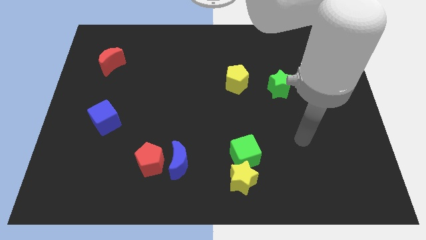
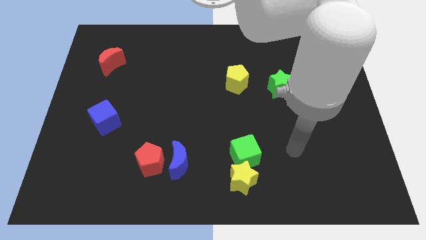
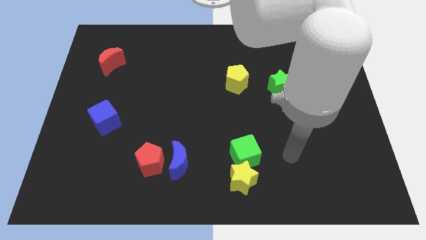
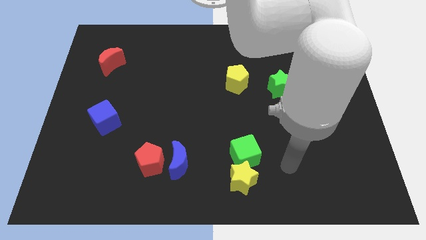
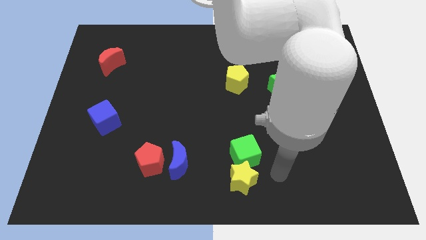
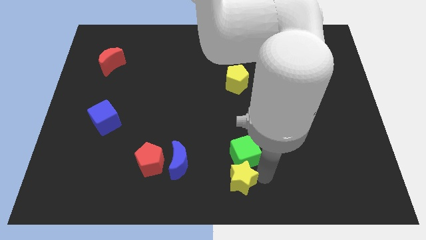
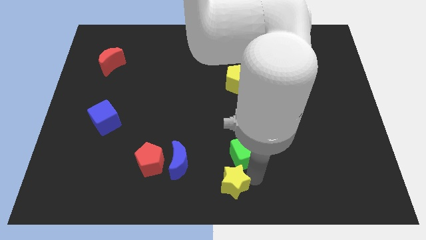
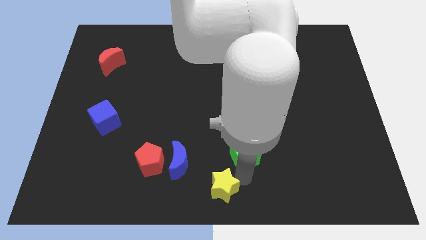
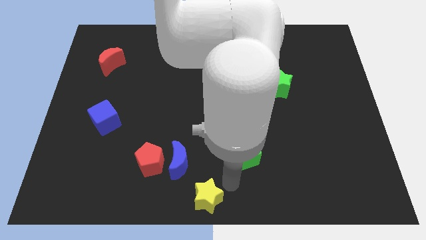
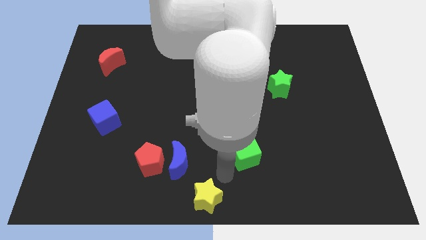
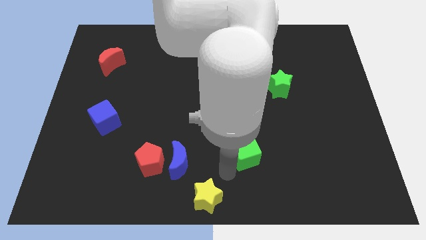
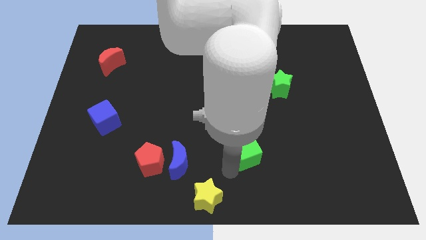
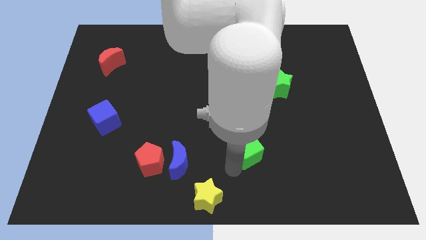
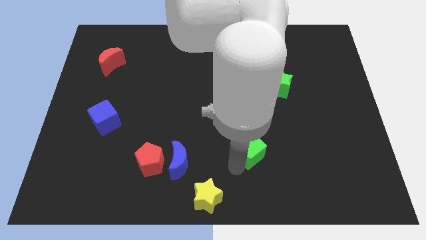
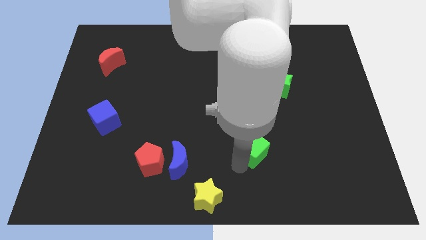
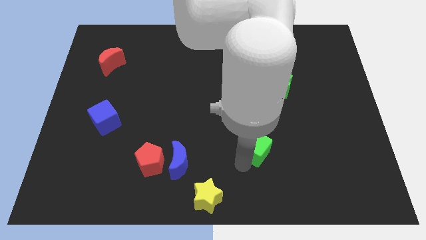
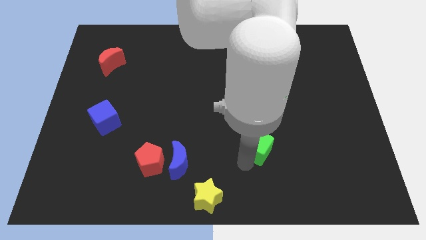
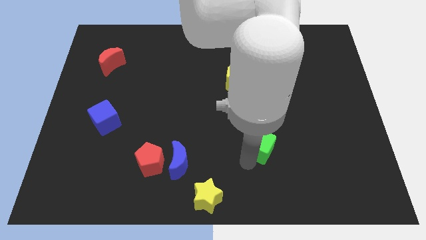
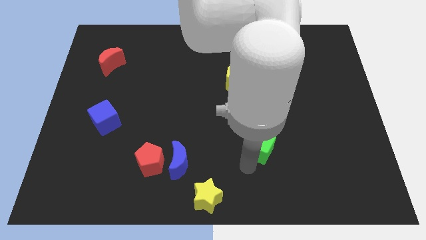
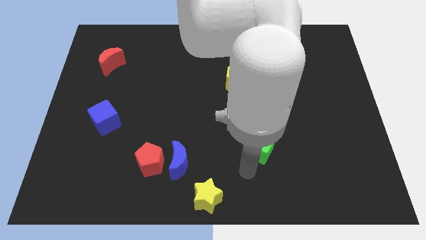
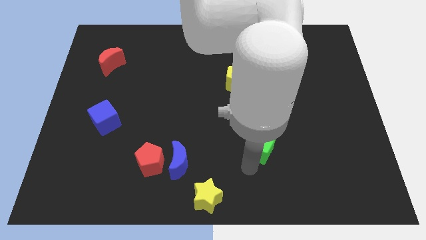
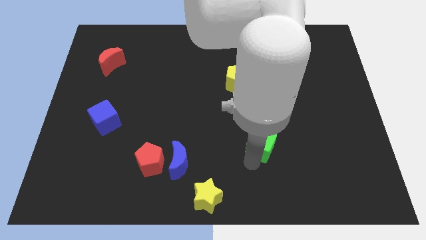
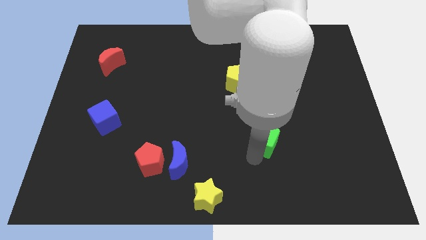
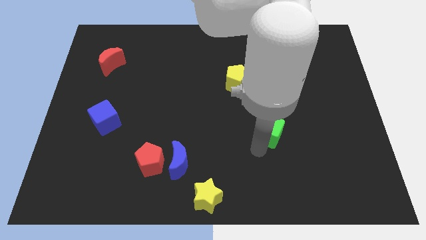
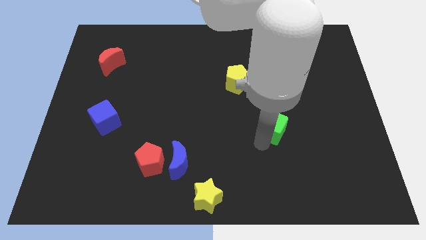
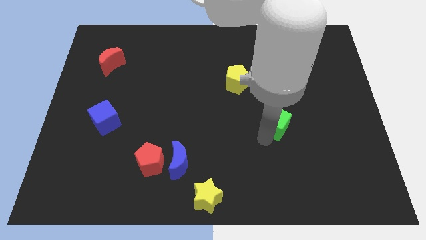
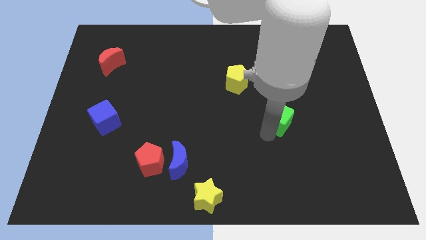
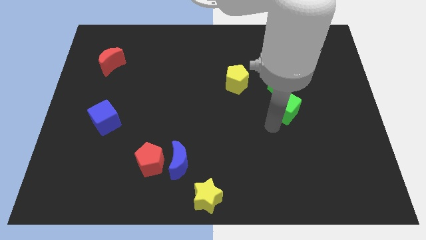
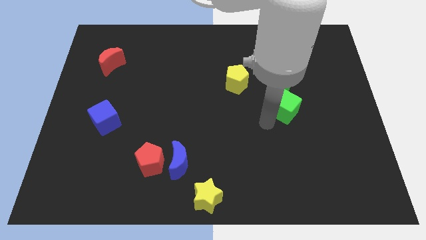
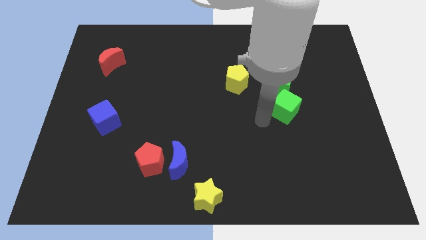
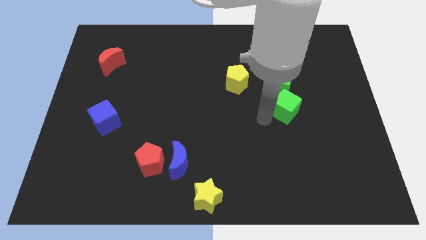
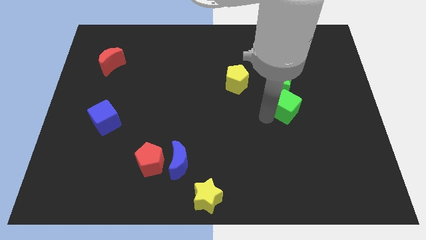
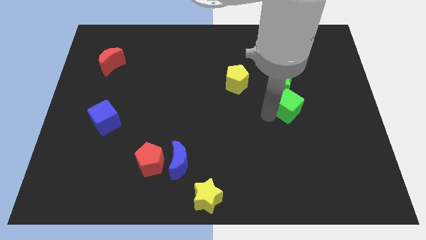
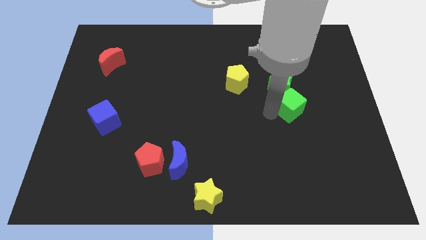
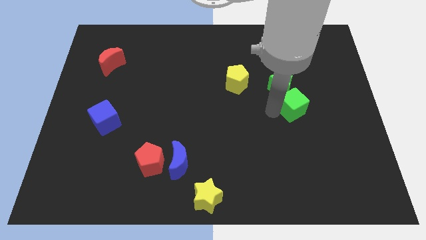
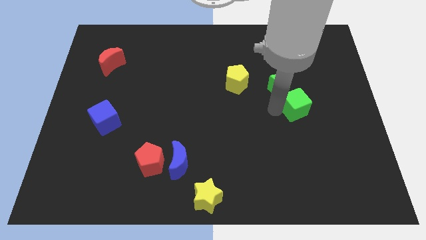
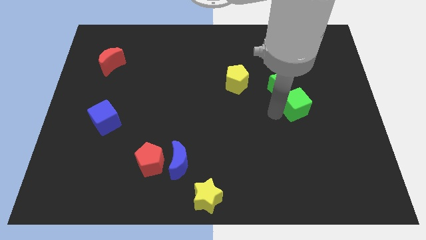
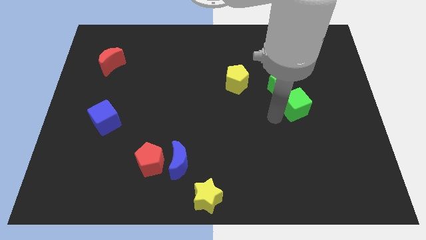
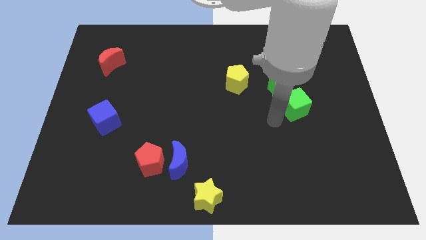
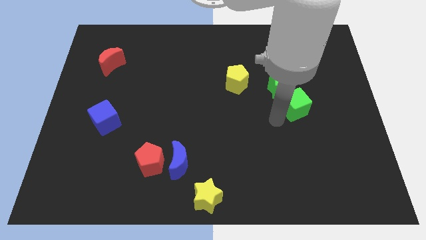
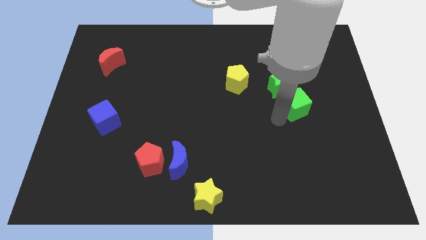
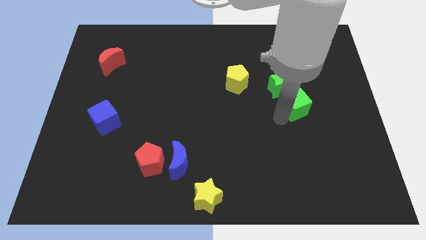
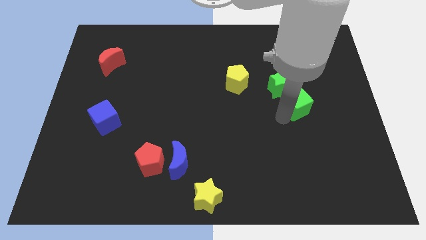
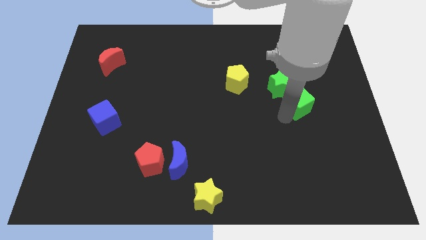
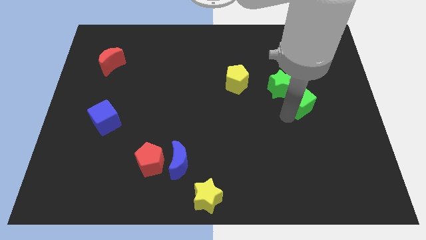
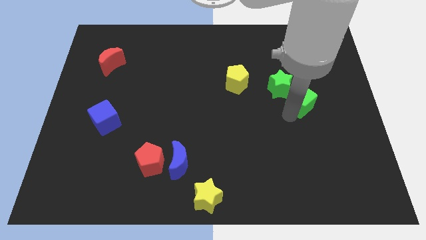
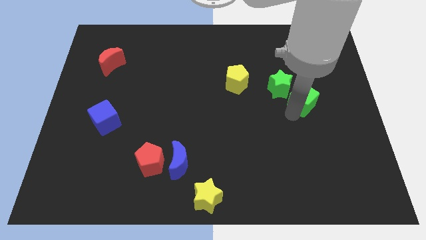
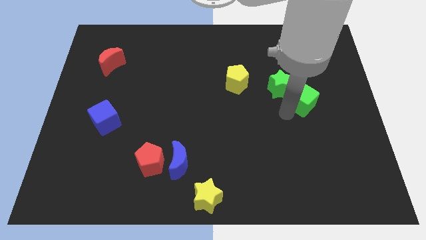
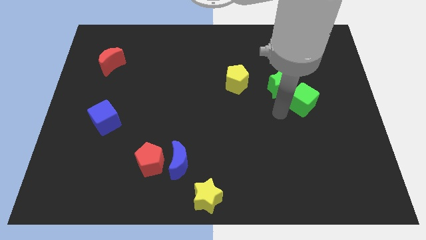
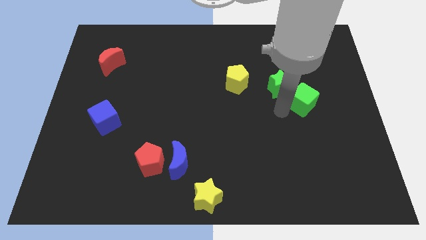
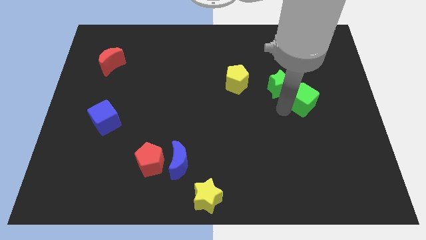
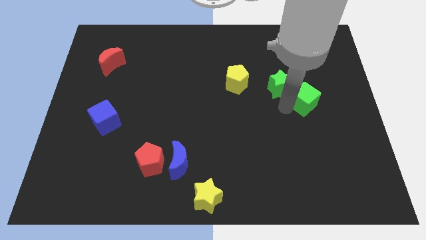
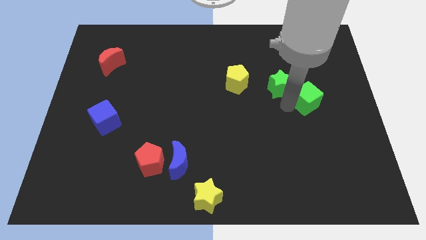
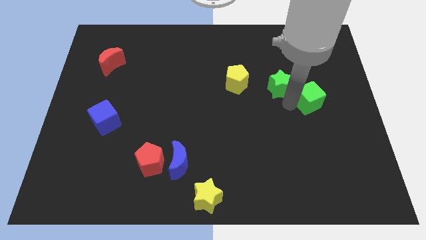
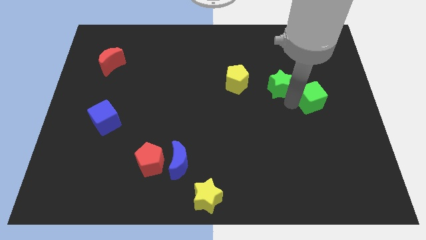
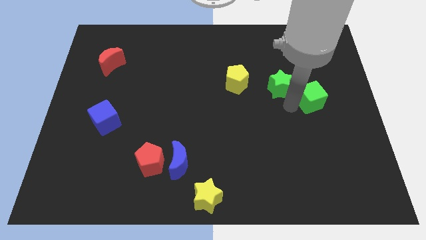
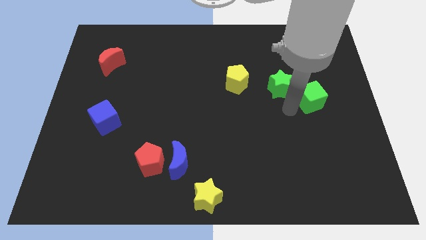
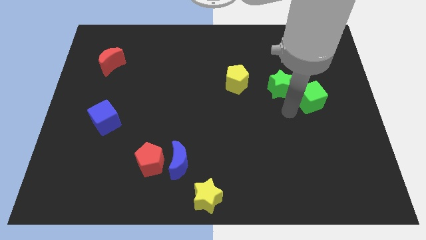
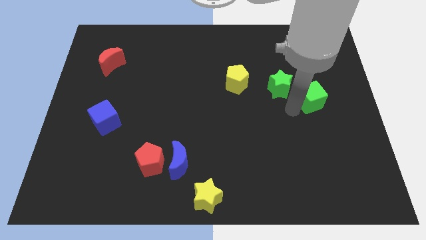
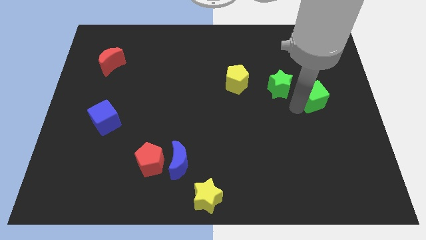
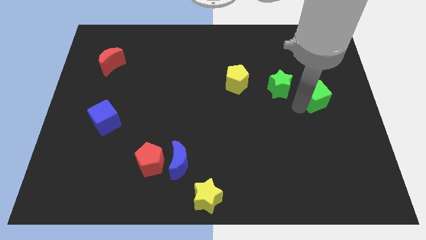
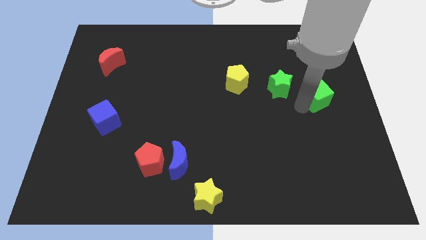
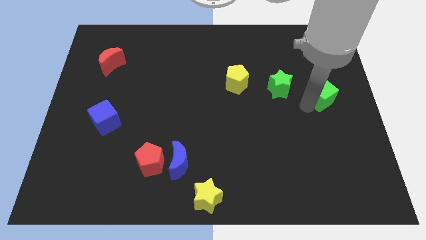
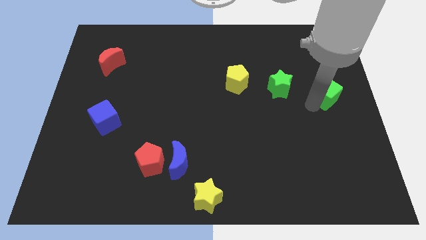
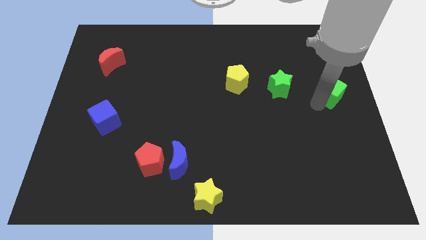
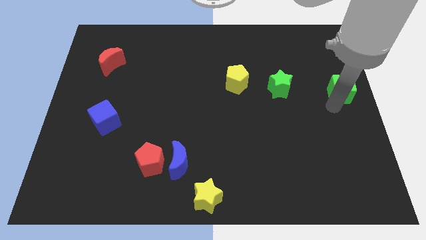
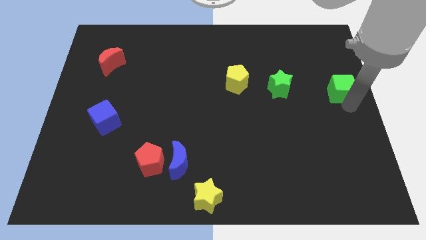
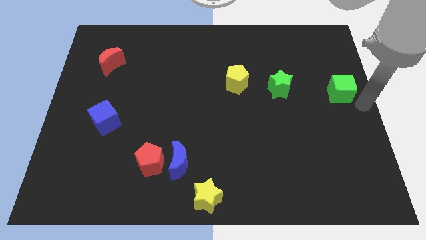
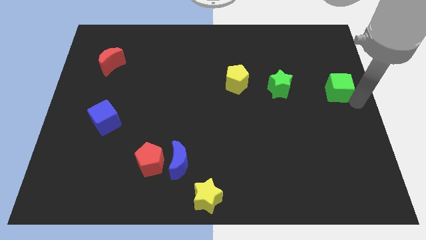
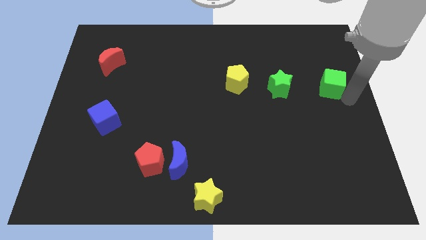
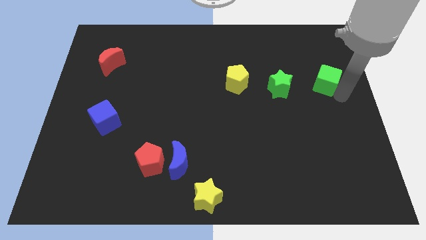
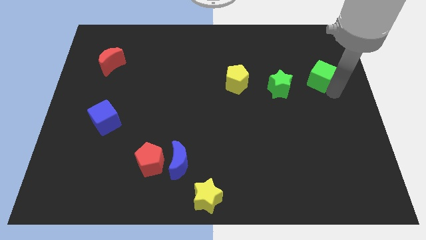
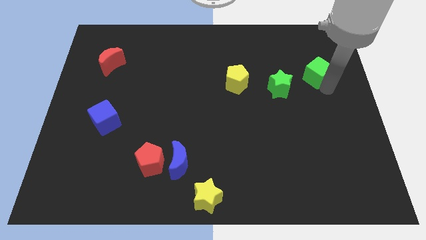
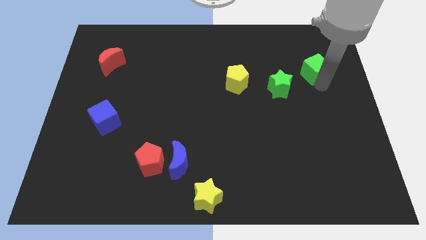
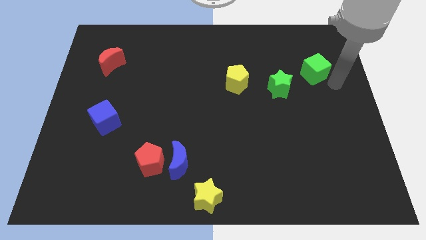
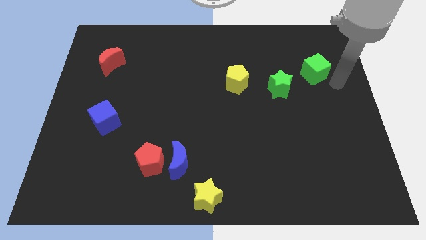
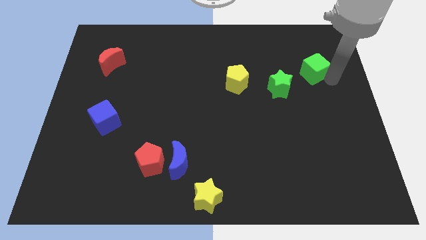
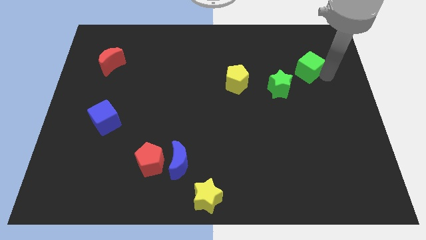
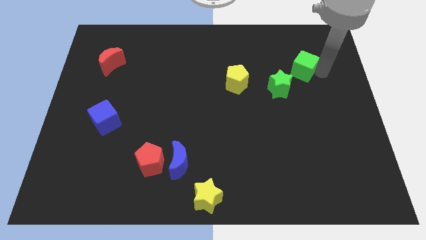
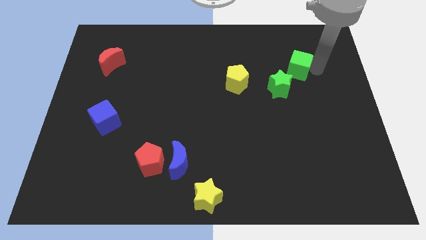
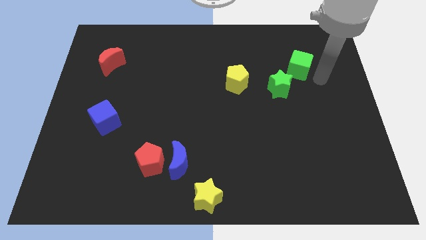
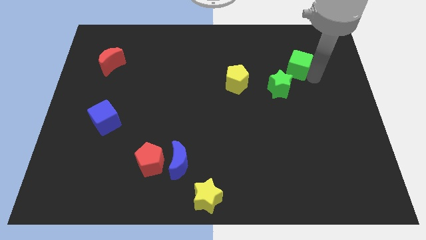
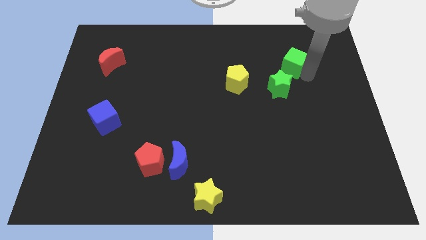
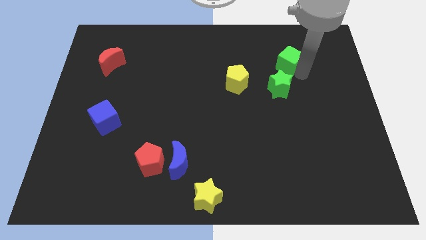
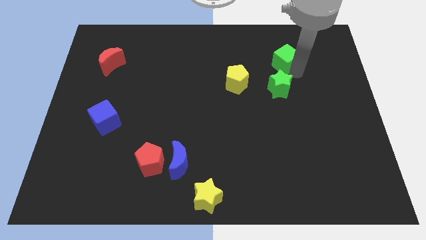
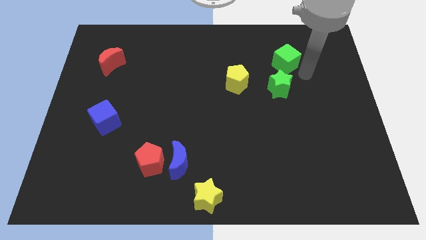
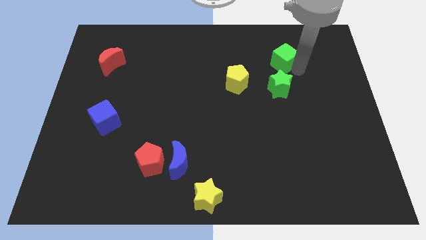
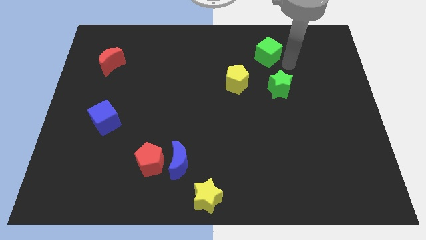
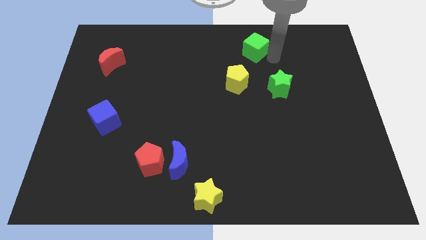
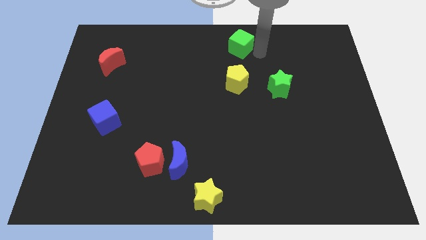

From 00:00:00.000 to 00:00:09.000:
move the green cube to the top side
